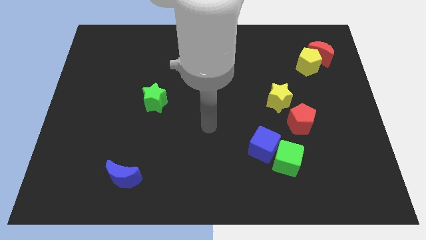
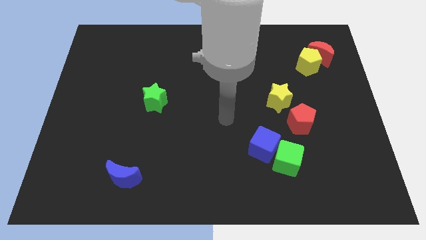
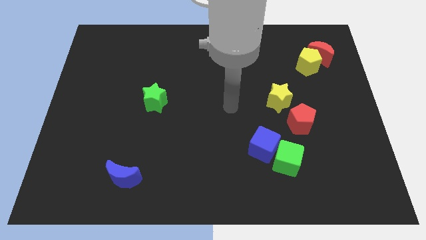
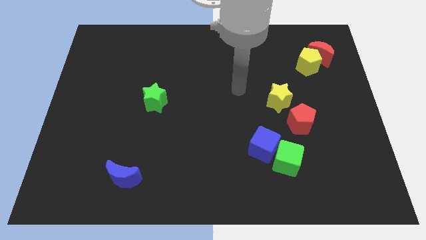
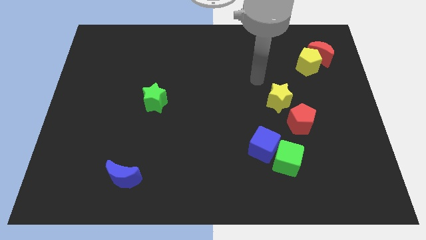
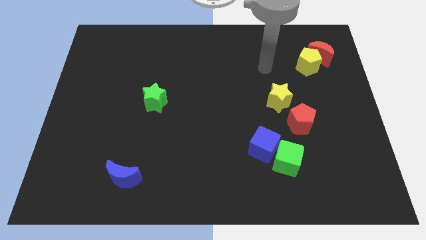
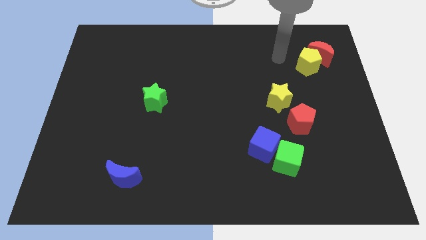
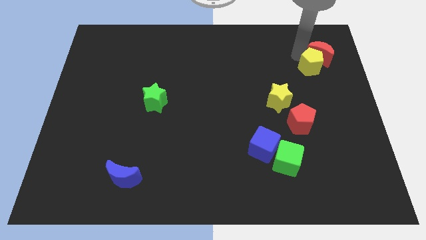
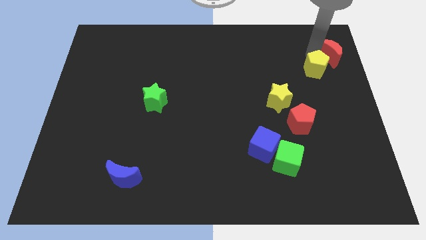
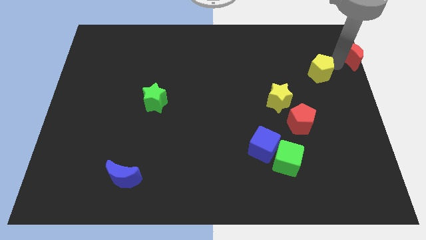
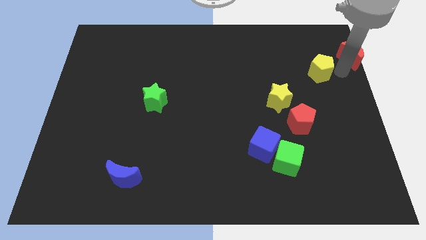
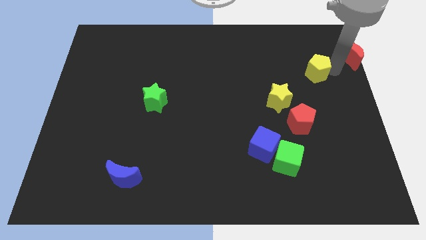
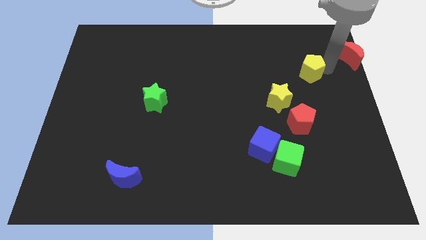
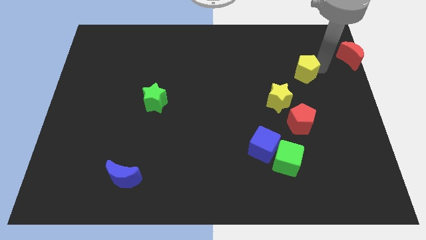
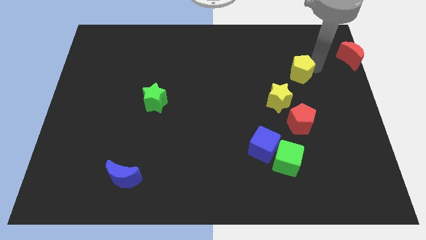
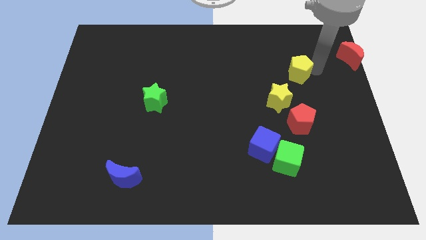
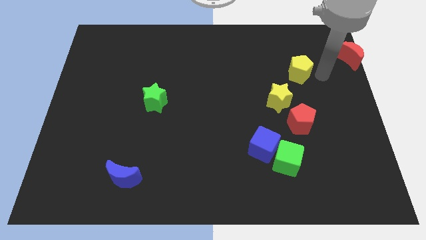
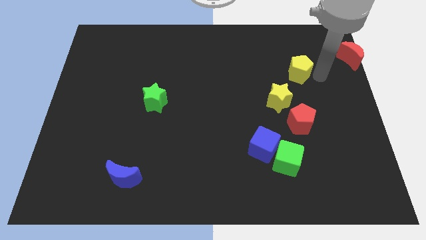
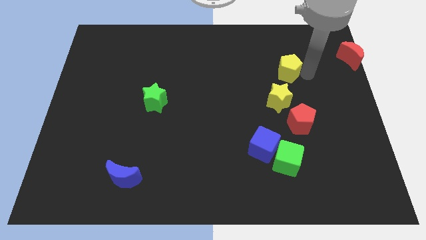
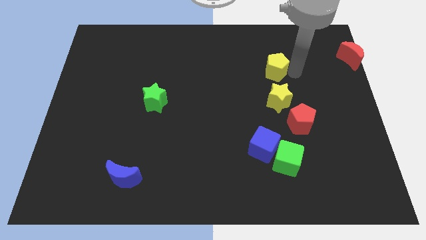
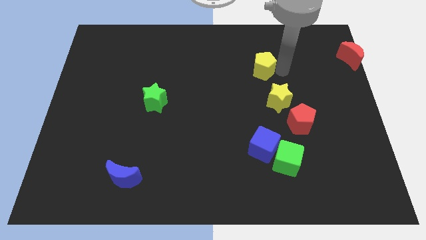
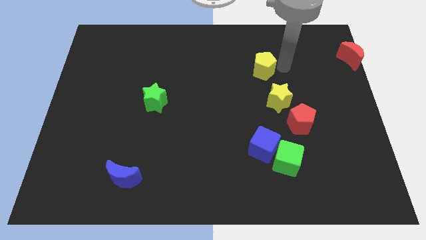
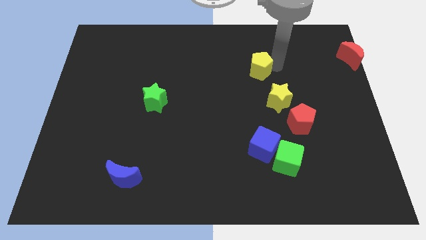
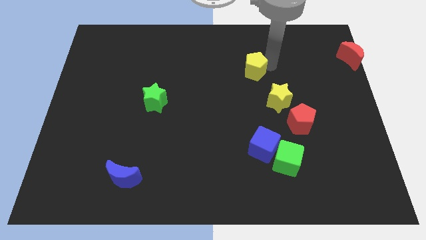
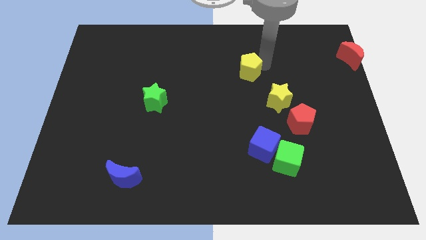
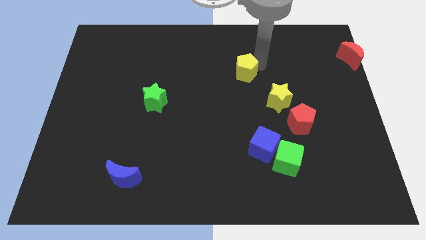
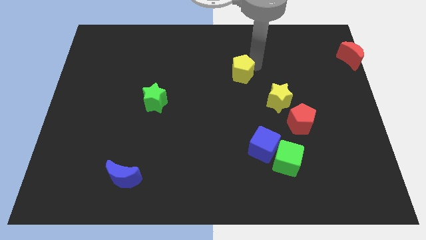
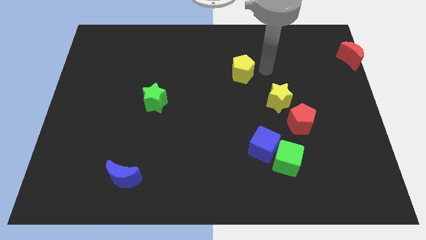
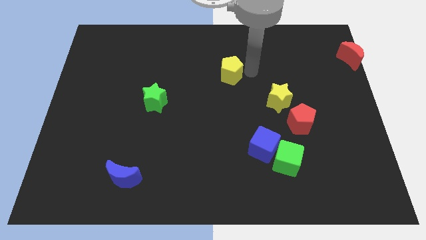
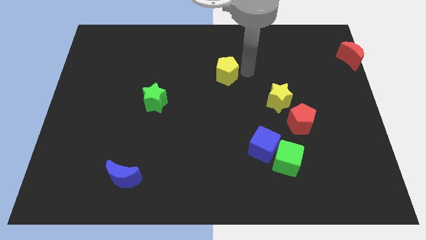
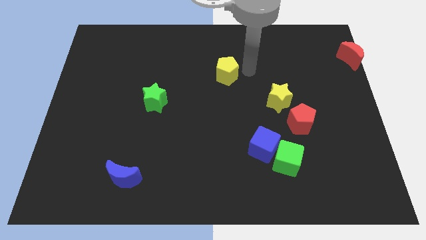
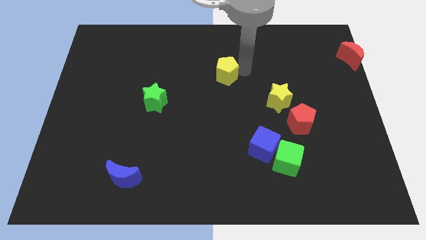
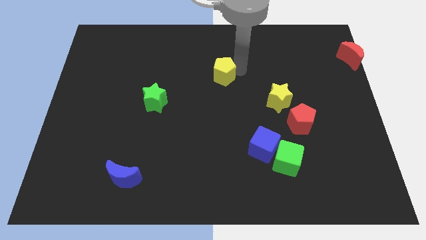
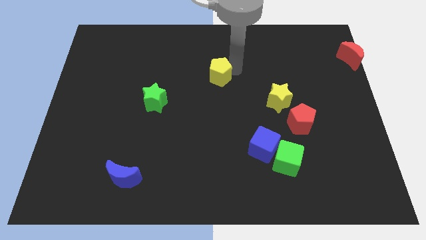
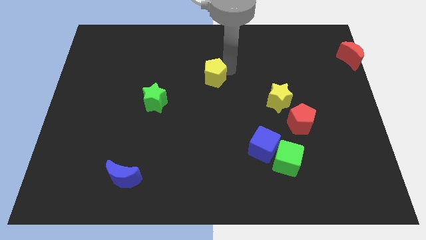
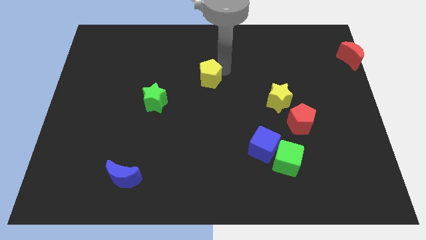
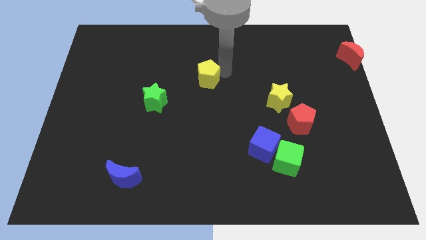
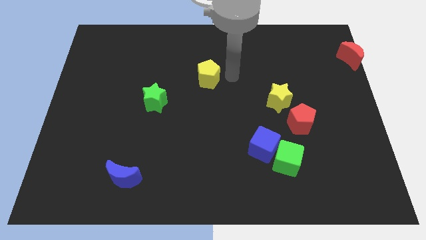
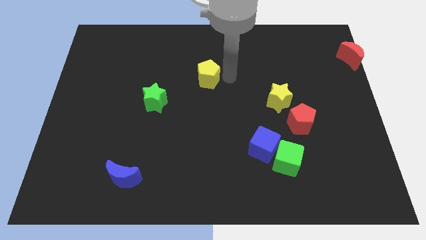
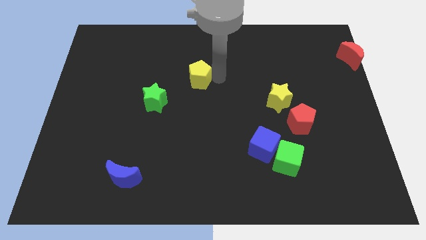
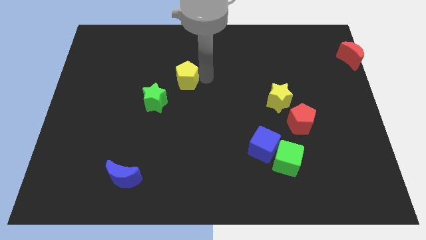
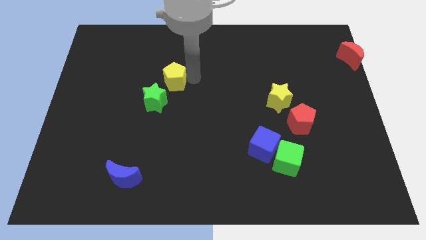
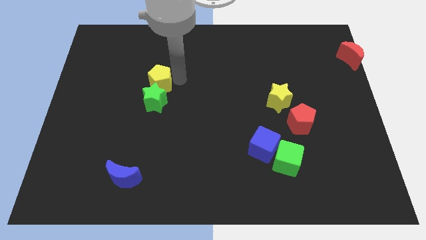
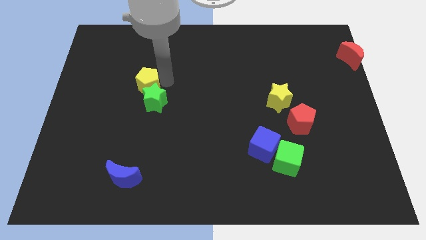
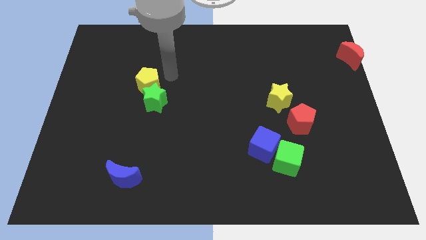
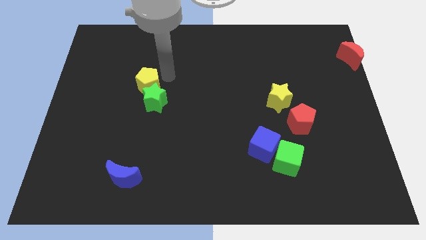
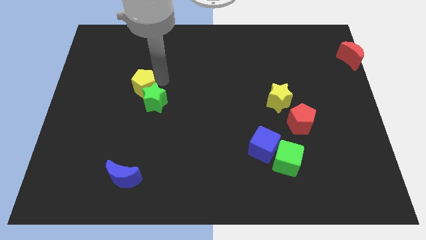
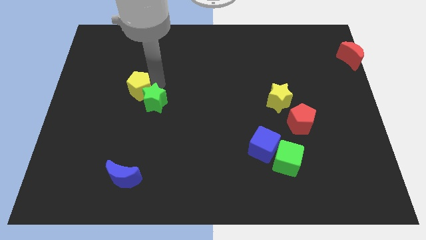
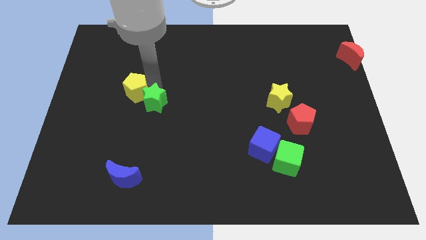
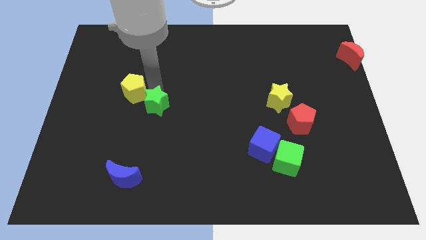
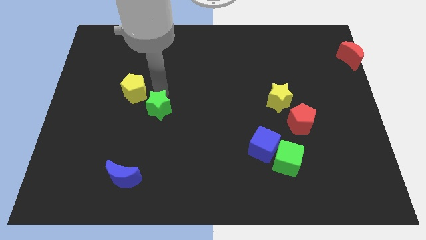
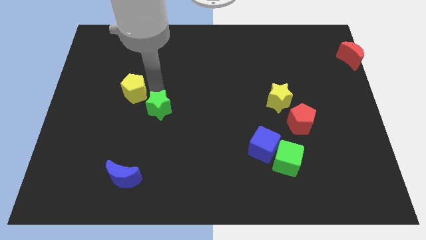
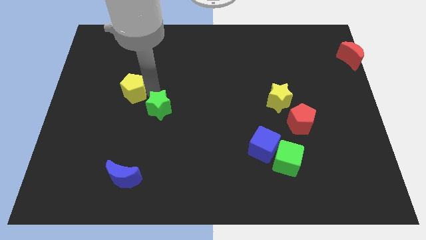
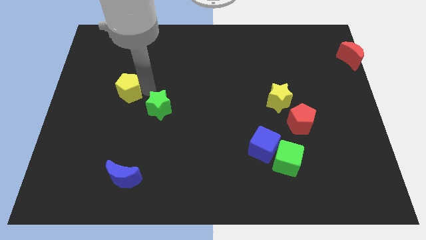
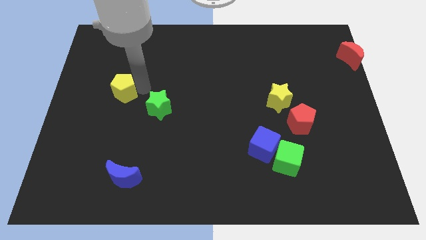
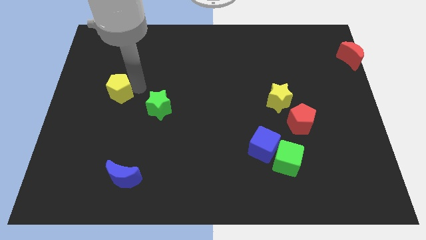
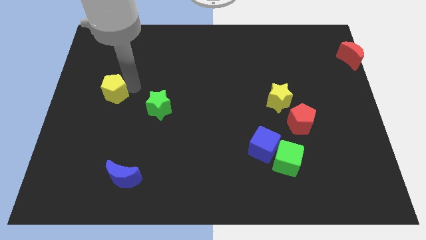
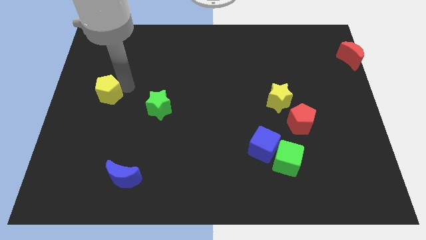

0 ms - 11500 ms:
push the yellow pentagon to the left side

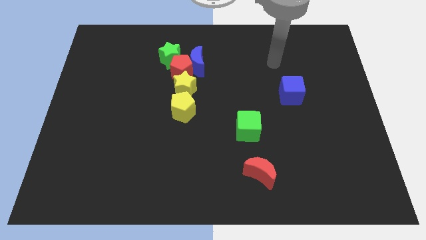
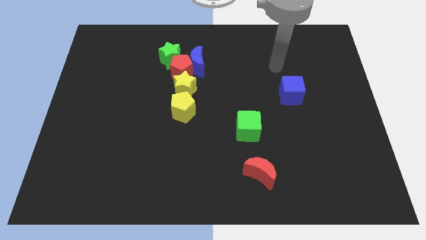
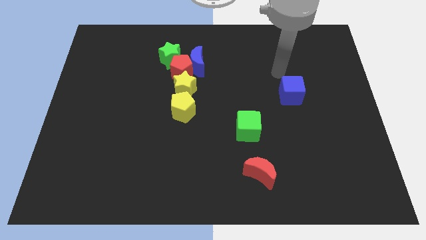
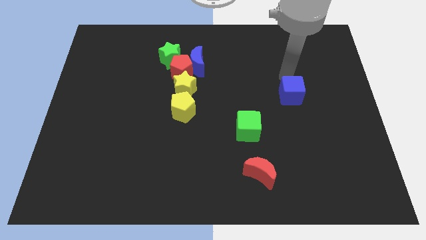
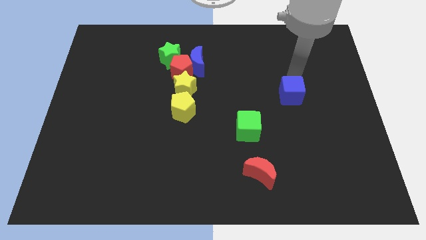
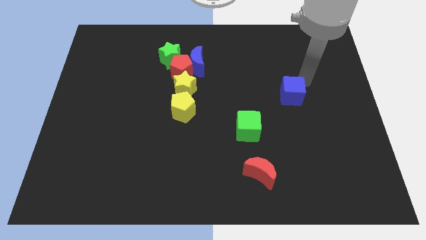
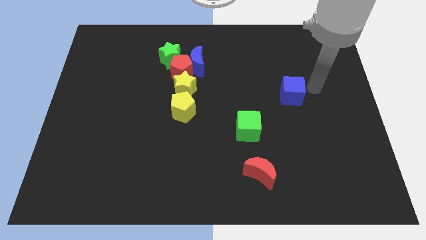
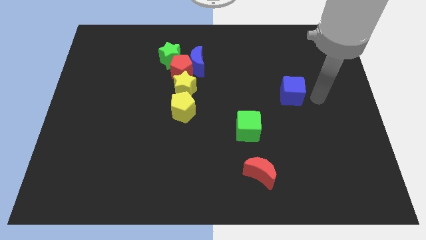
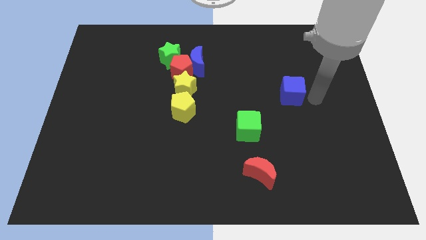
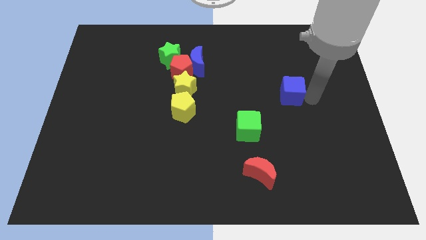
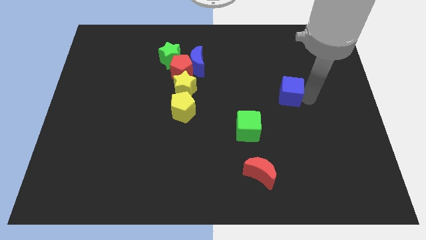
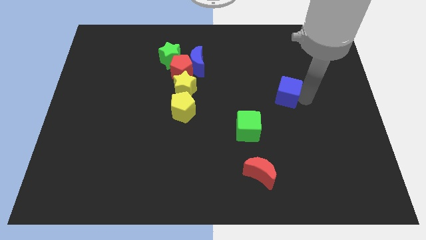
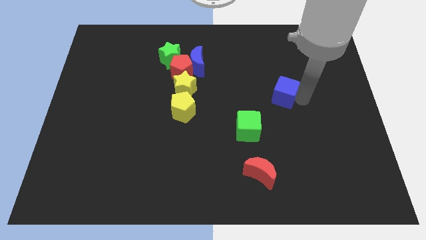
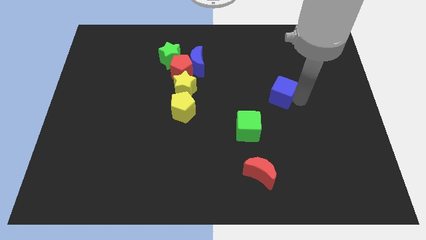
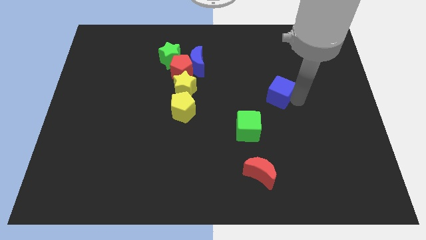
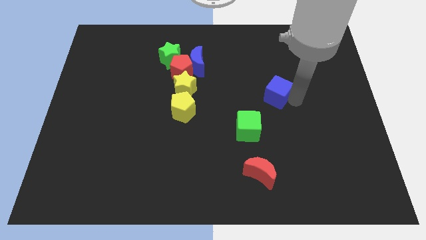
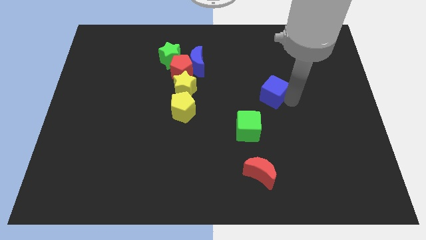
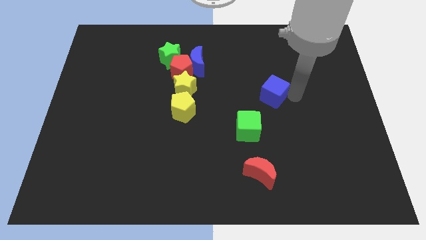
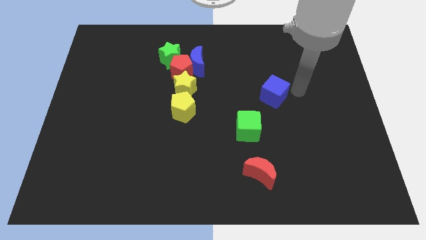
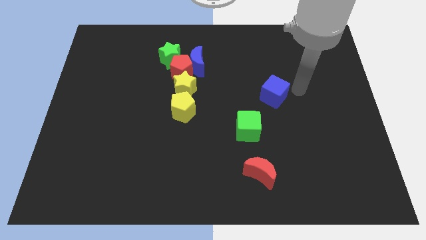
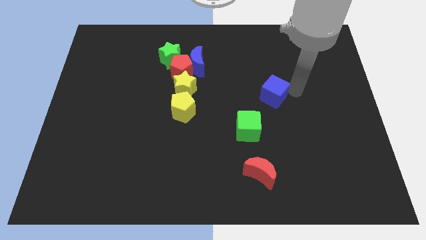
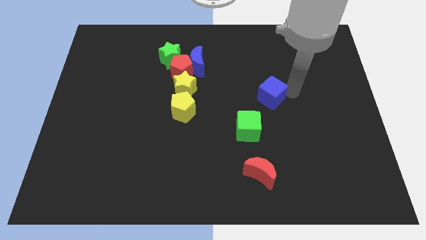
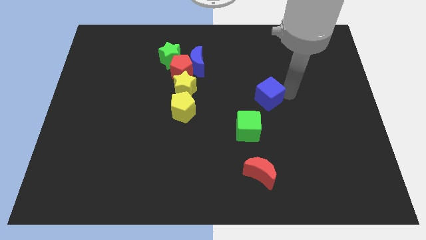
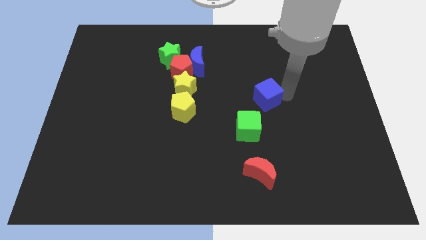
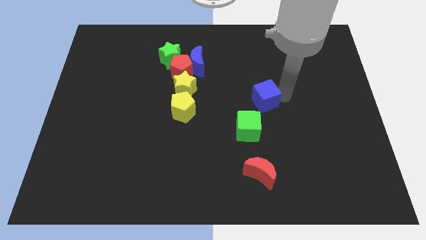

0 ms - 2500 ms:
push the blue cube to the middle of the board
